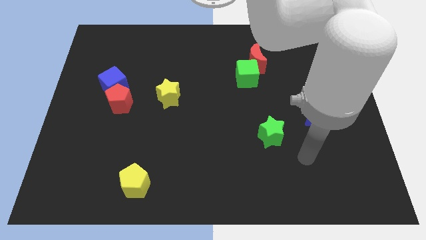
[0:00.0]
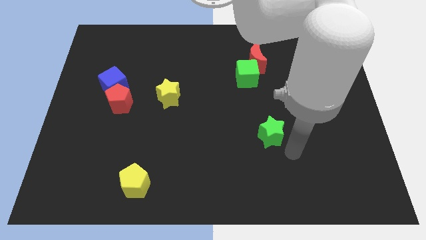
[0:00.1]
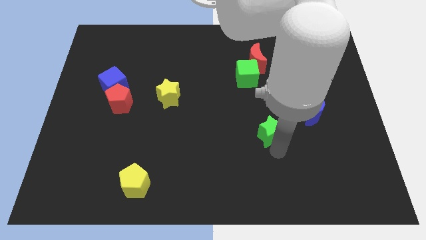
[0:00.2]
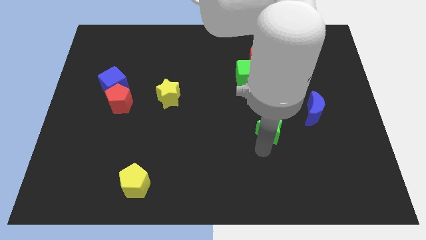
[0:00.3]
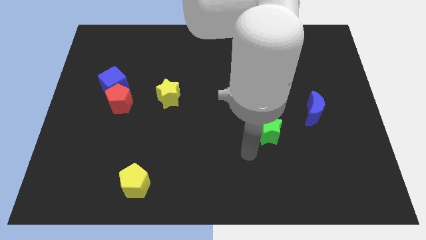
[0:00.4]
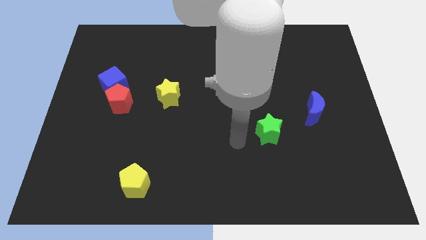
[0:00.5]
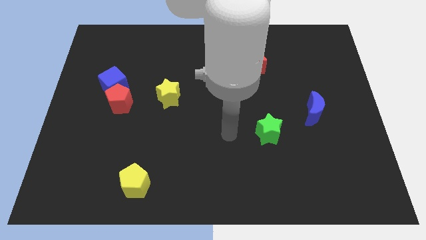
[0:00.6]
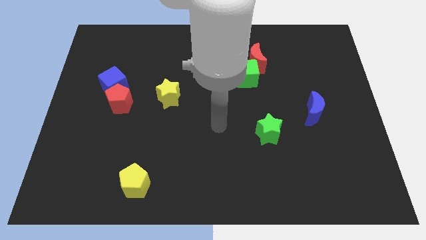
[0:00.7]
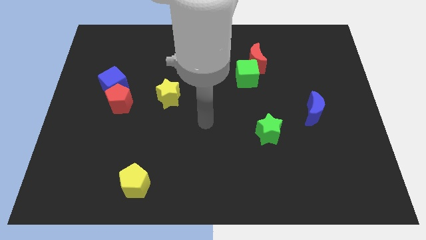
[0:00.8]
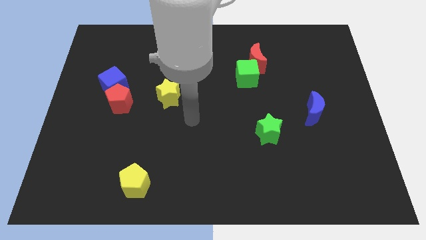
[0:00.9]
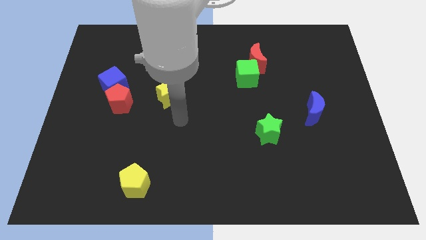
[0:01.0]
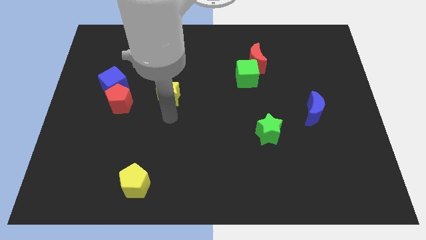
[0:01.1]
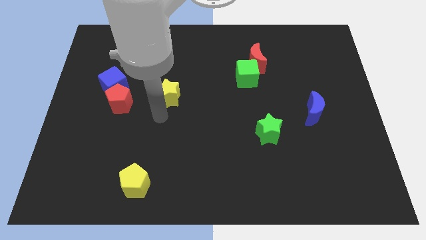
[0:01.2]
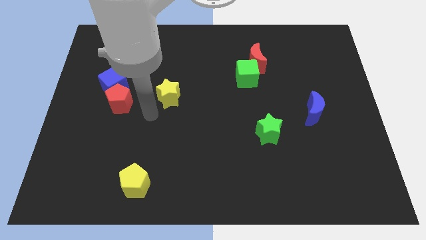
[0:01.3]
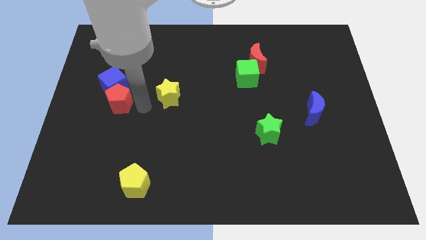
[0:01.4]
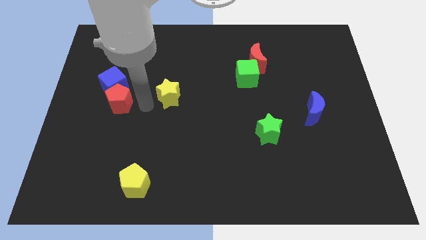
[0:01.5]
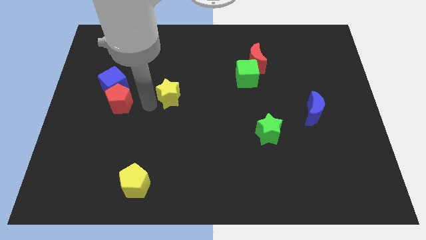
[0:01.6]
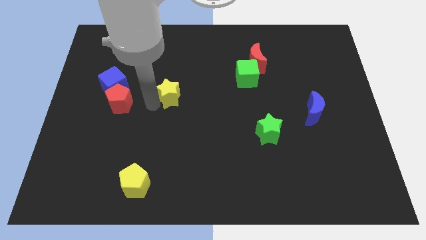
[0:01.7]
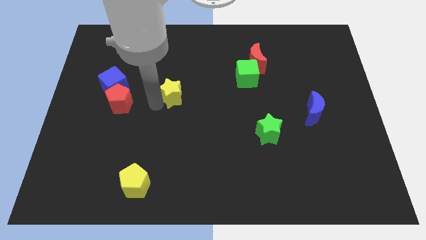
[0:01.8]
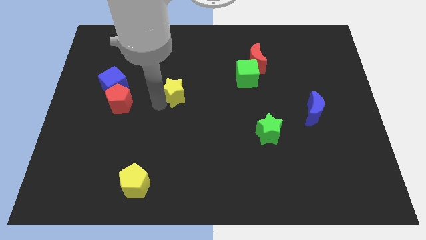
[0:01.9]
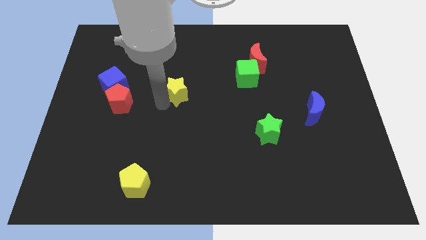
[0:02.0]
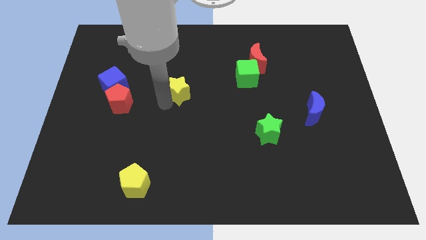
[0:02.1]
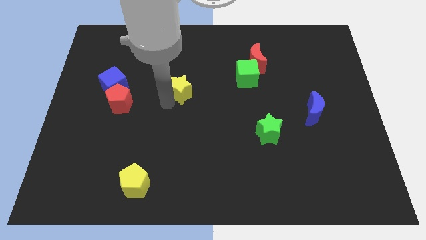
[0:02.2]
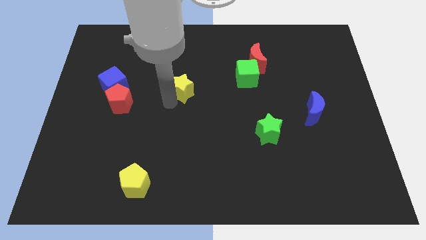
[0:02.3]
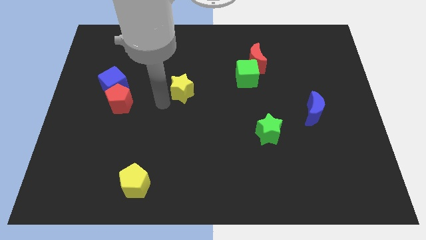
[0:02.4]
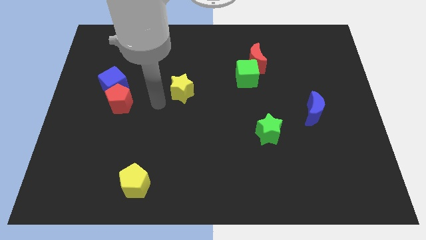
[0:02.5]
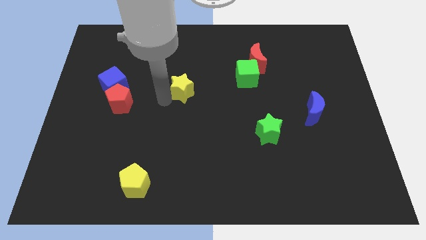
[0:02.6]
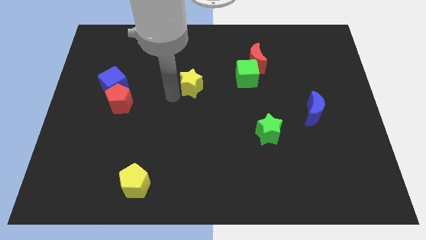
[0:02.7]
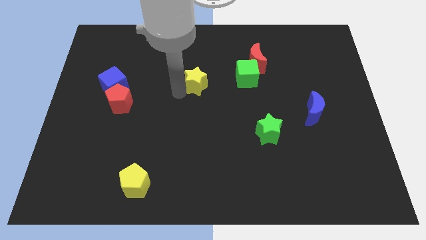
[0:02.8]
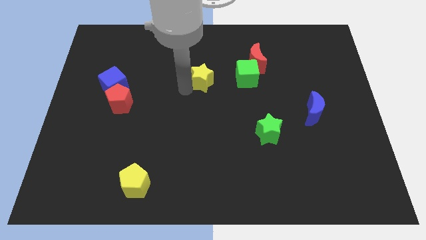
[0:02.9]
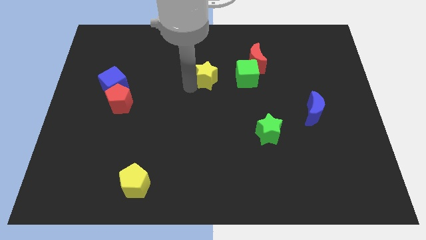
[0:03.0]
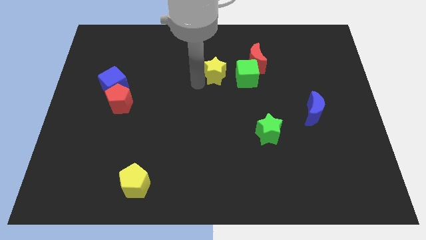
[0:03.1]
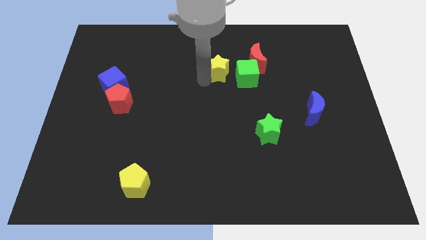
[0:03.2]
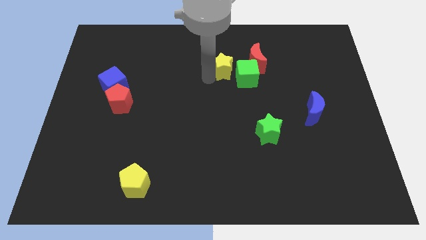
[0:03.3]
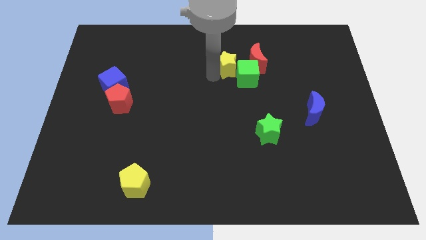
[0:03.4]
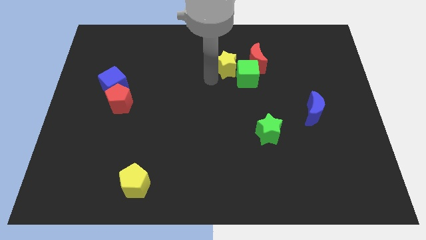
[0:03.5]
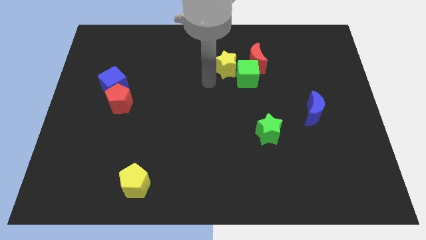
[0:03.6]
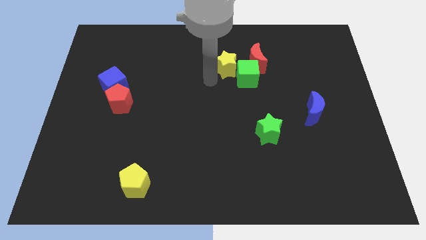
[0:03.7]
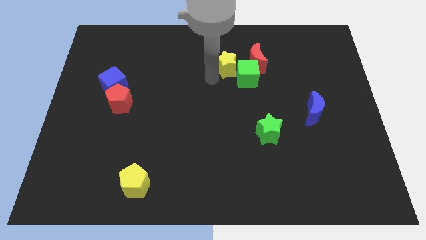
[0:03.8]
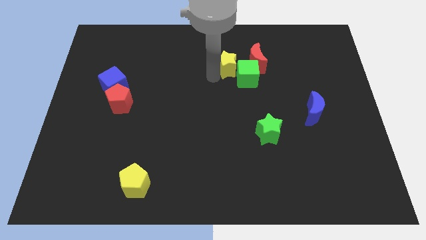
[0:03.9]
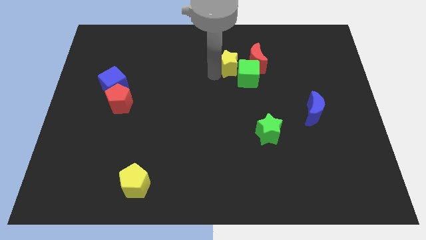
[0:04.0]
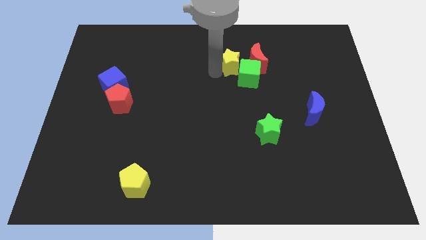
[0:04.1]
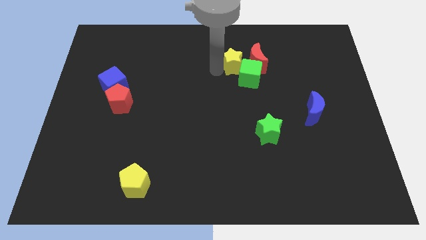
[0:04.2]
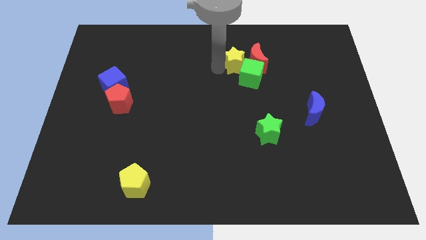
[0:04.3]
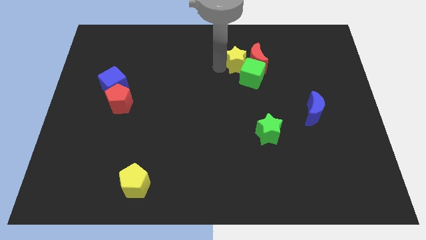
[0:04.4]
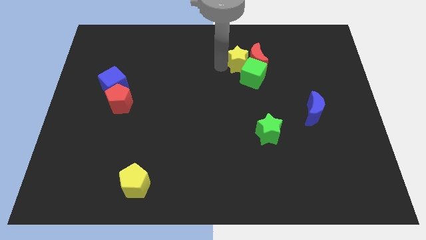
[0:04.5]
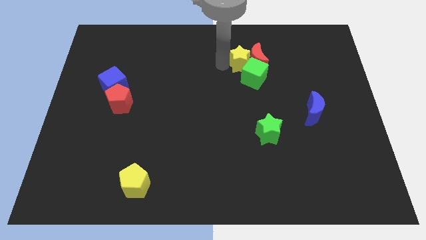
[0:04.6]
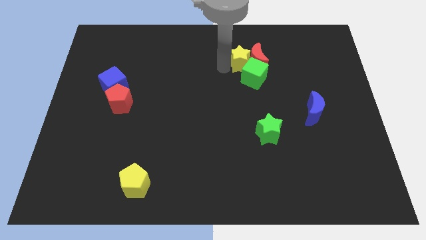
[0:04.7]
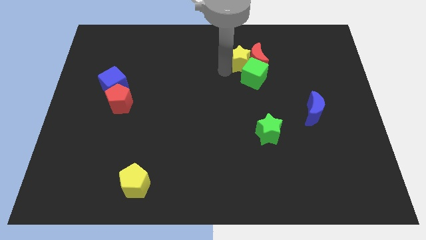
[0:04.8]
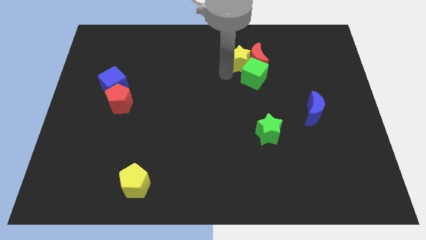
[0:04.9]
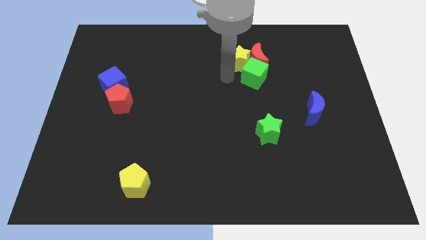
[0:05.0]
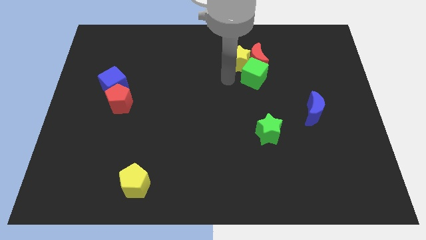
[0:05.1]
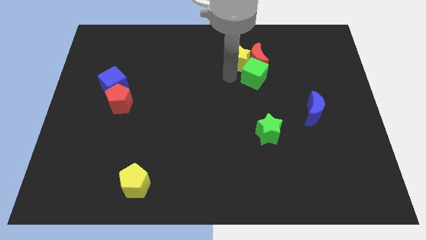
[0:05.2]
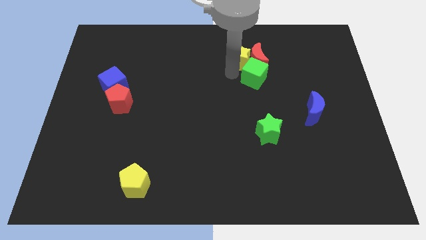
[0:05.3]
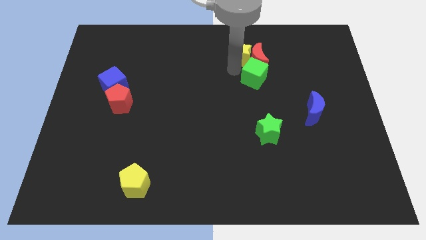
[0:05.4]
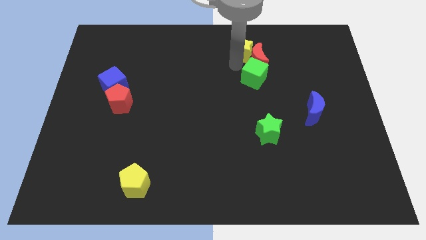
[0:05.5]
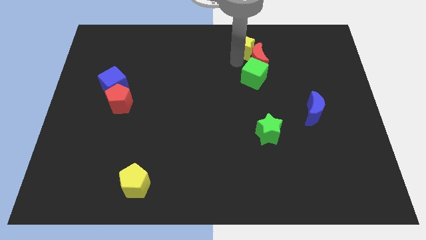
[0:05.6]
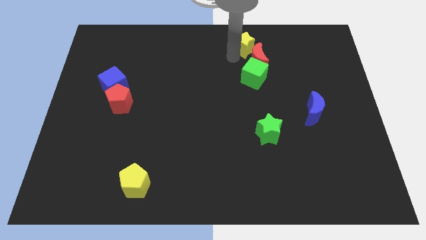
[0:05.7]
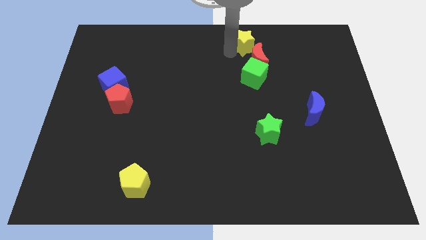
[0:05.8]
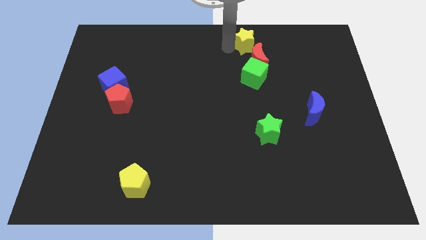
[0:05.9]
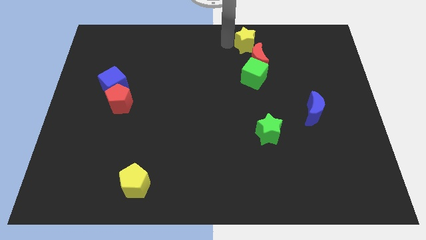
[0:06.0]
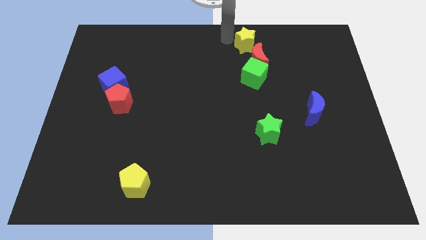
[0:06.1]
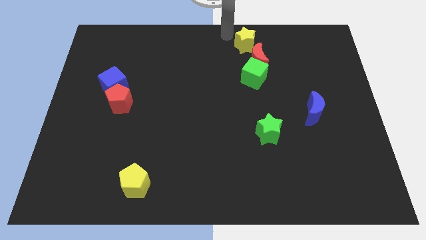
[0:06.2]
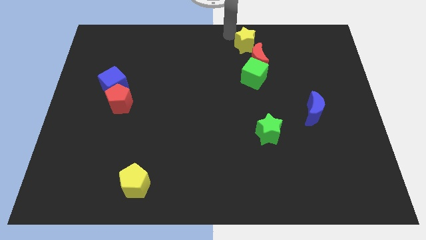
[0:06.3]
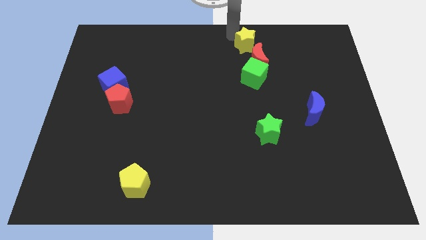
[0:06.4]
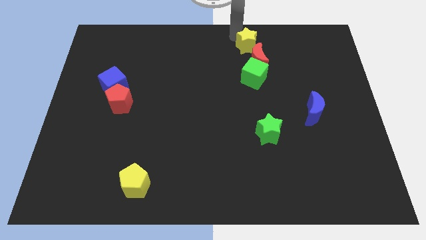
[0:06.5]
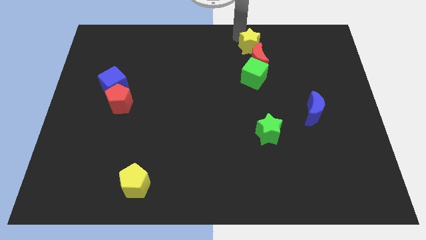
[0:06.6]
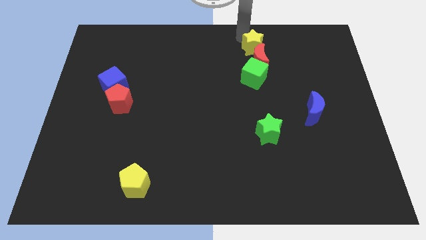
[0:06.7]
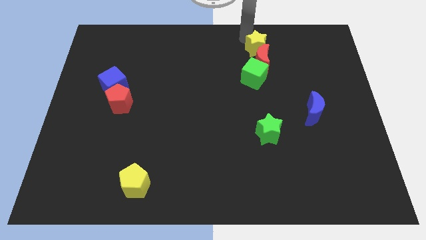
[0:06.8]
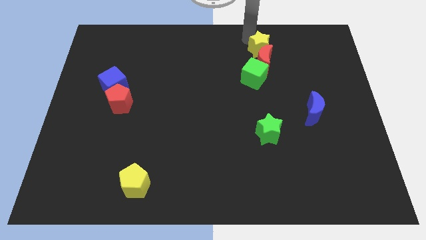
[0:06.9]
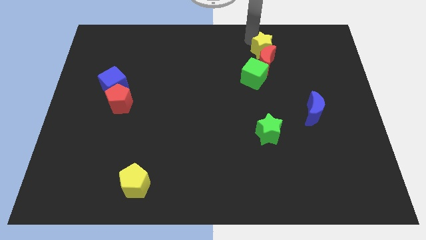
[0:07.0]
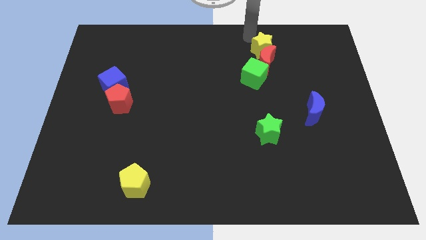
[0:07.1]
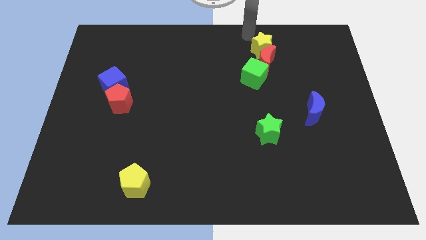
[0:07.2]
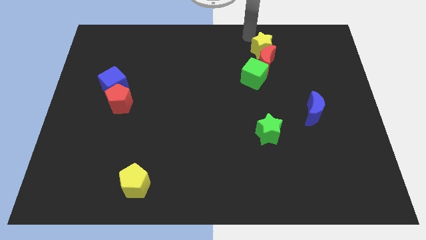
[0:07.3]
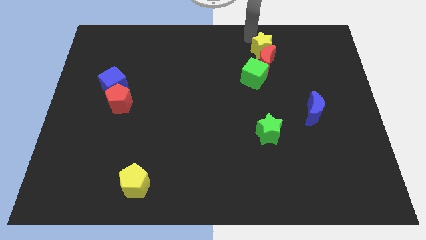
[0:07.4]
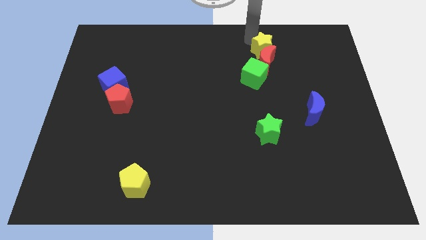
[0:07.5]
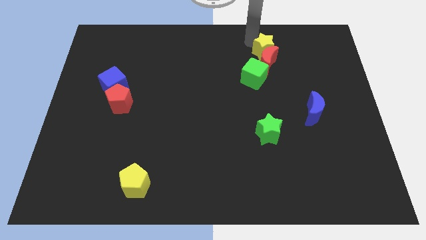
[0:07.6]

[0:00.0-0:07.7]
push the yellow star to the top right of the green cube
